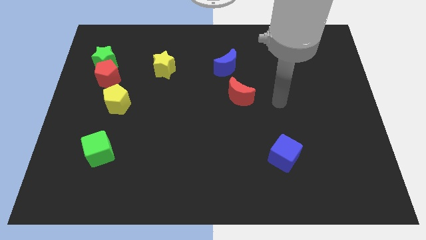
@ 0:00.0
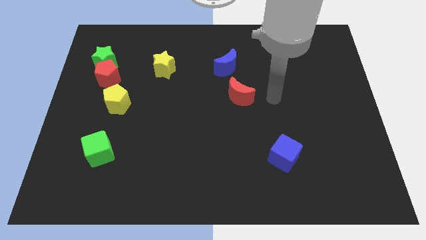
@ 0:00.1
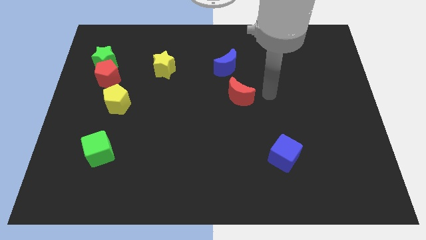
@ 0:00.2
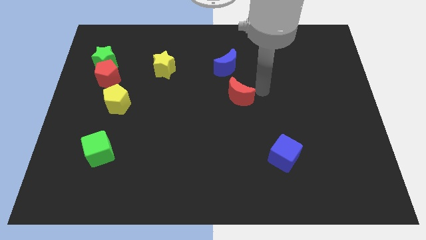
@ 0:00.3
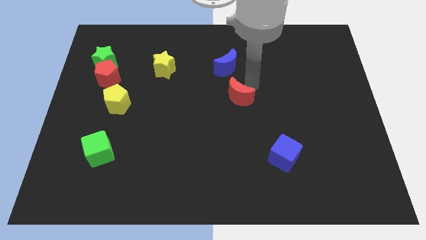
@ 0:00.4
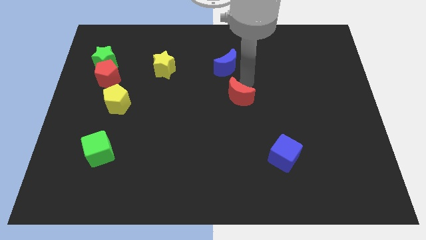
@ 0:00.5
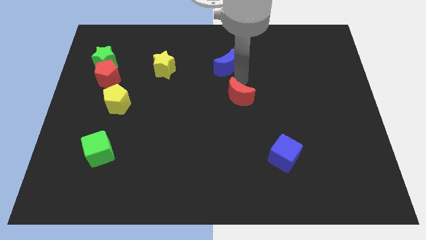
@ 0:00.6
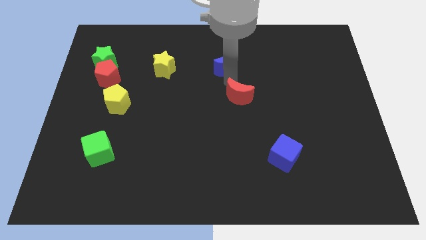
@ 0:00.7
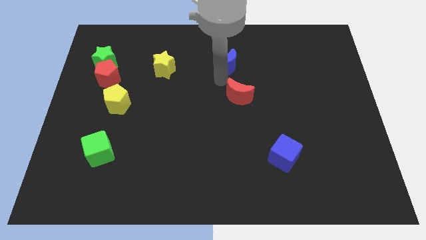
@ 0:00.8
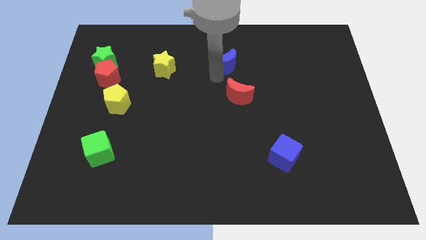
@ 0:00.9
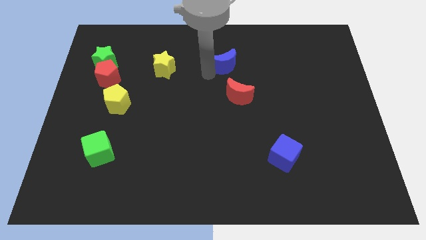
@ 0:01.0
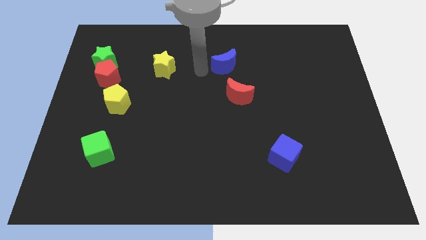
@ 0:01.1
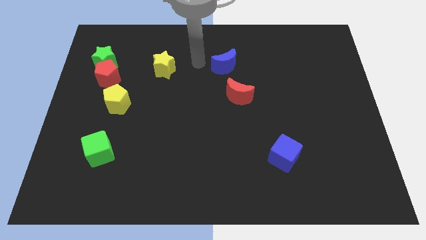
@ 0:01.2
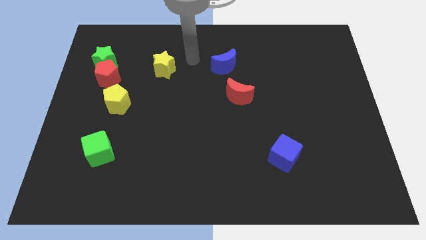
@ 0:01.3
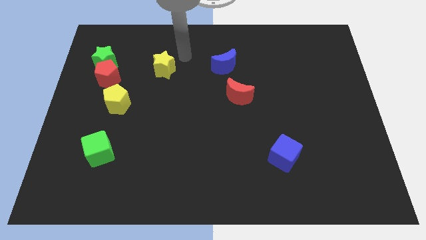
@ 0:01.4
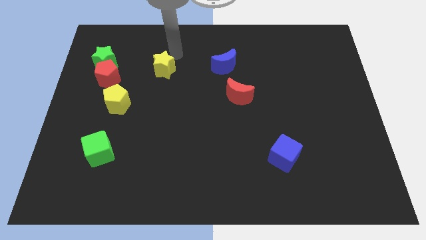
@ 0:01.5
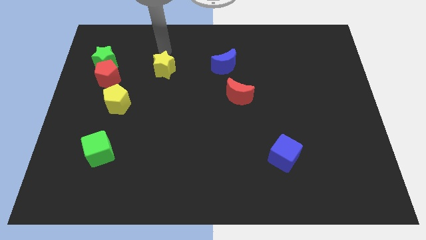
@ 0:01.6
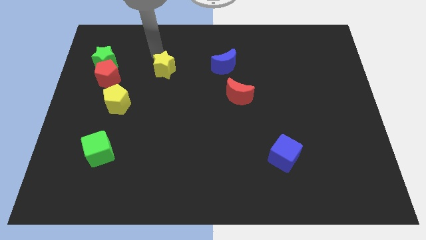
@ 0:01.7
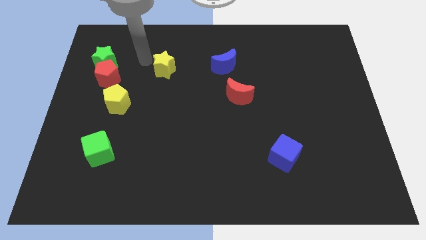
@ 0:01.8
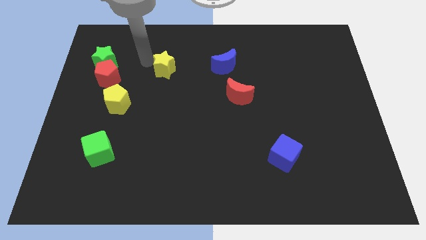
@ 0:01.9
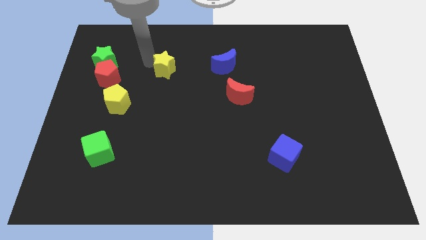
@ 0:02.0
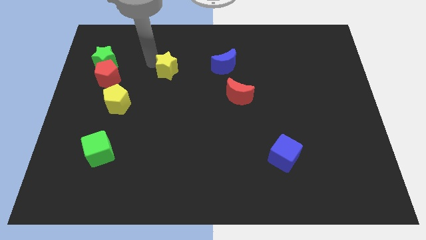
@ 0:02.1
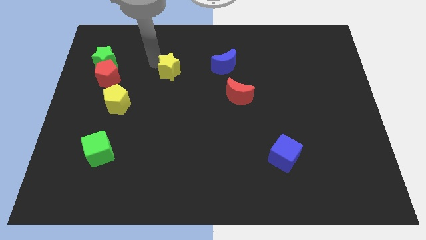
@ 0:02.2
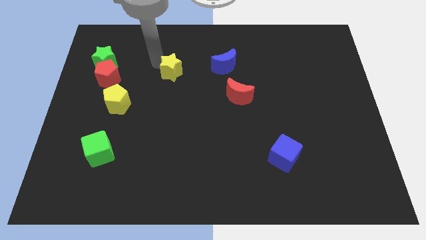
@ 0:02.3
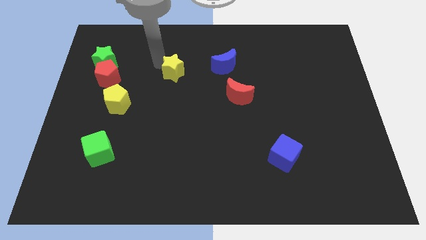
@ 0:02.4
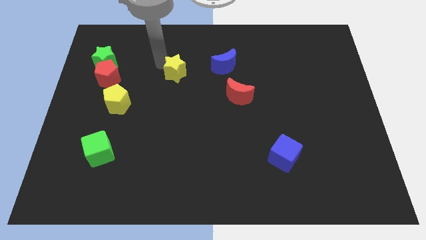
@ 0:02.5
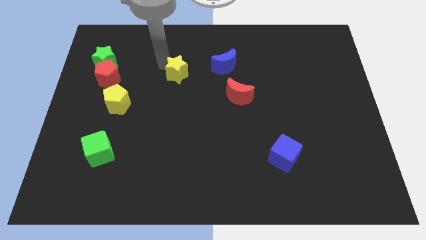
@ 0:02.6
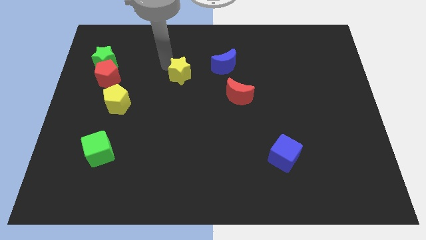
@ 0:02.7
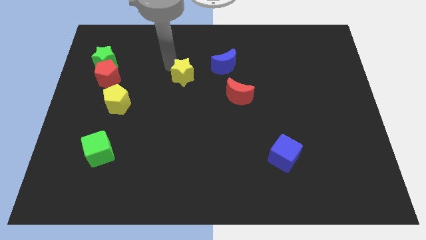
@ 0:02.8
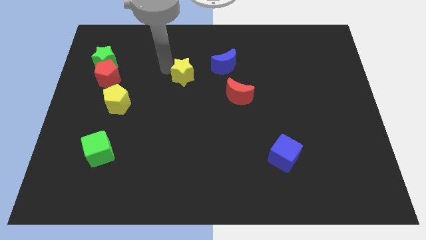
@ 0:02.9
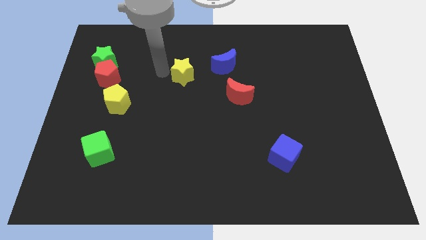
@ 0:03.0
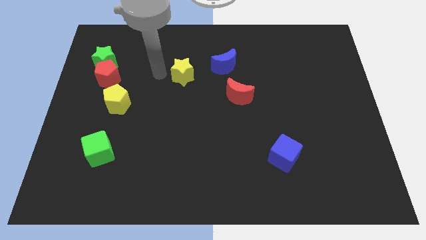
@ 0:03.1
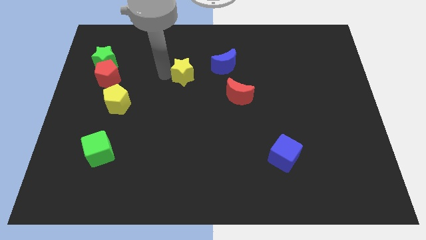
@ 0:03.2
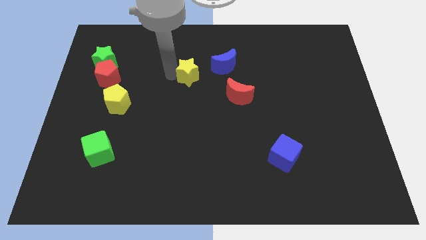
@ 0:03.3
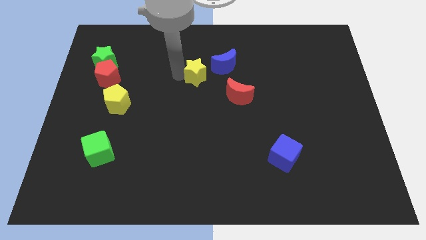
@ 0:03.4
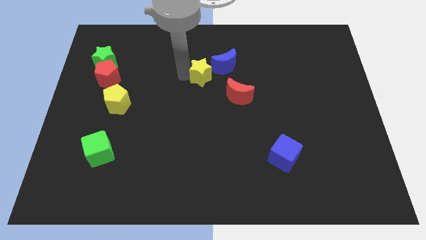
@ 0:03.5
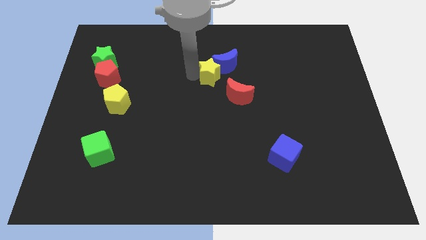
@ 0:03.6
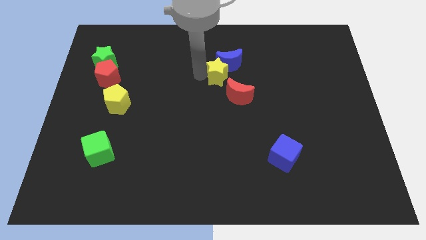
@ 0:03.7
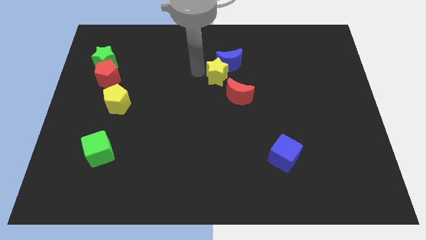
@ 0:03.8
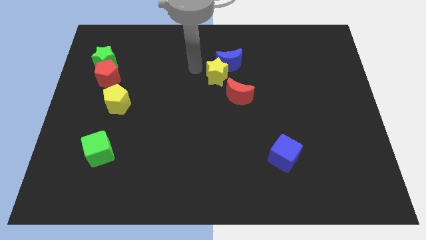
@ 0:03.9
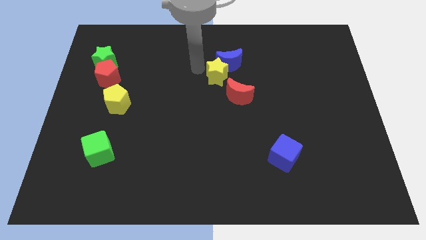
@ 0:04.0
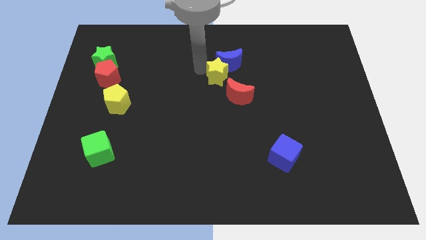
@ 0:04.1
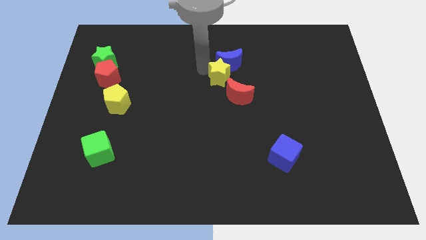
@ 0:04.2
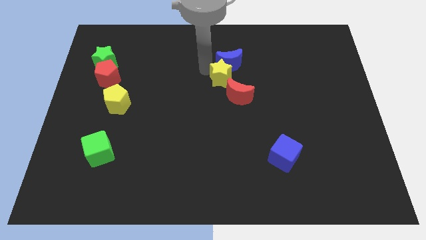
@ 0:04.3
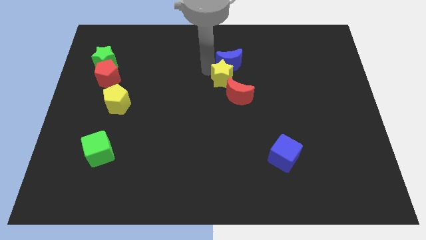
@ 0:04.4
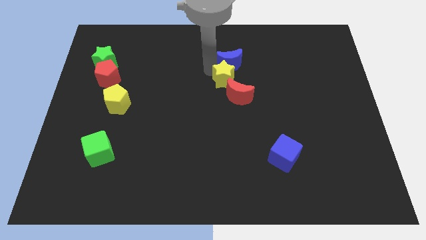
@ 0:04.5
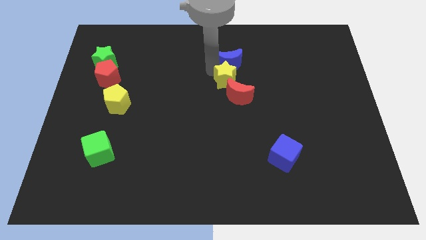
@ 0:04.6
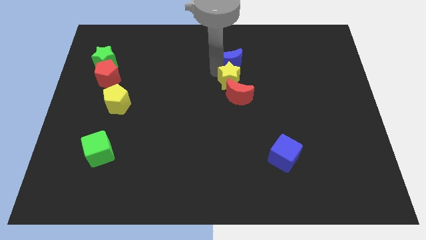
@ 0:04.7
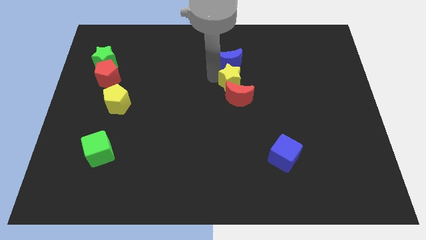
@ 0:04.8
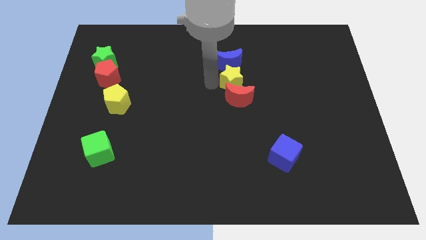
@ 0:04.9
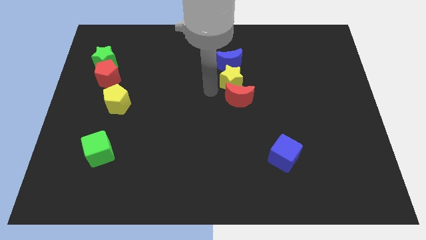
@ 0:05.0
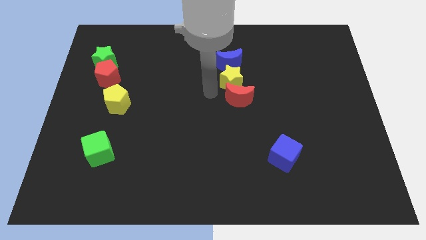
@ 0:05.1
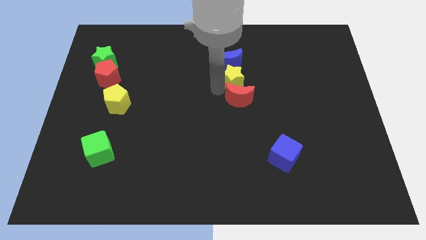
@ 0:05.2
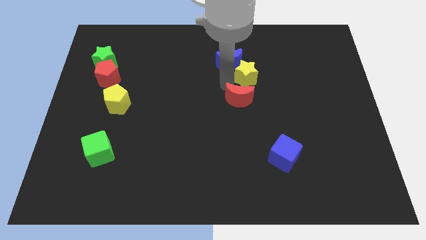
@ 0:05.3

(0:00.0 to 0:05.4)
move the yellow star to the right of the blue moon

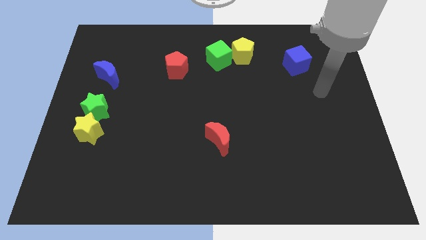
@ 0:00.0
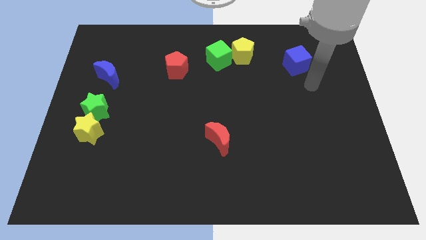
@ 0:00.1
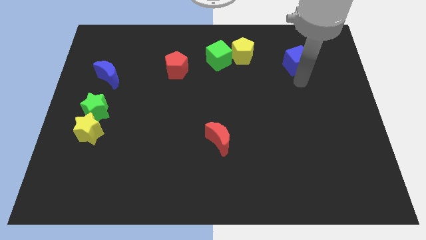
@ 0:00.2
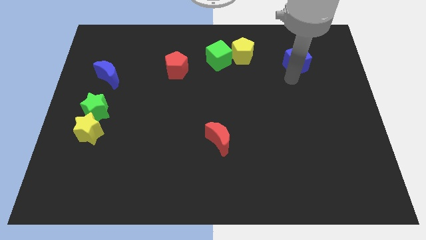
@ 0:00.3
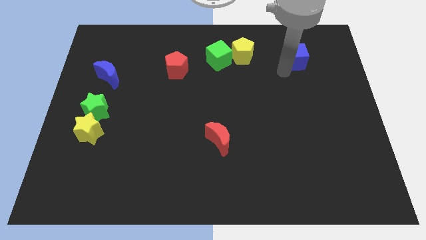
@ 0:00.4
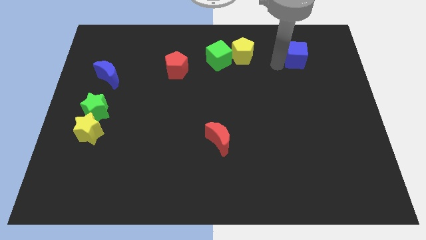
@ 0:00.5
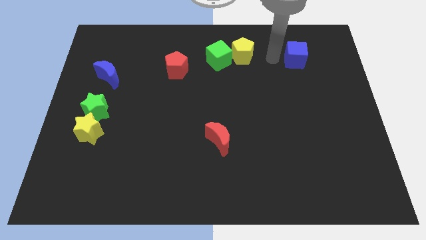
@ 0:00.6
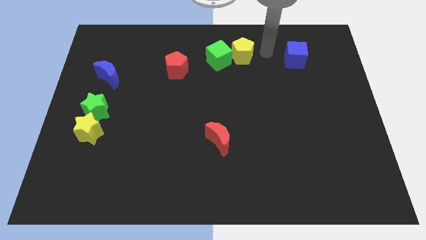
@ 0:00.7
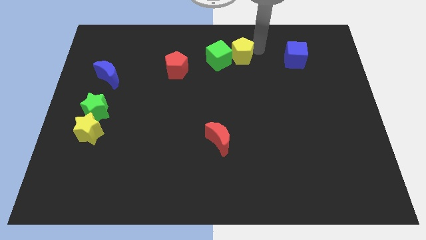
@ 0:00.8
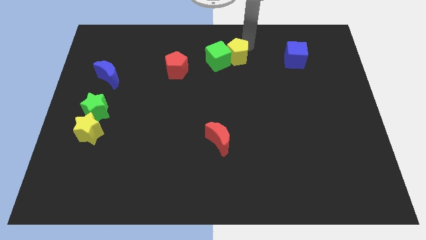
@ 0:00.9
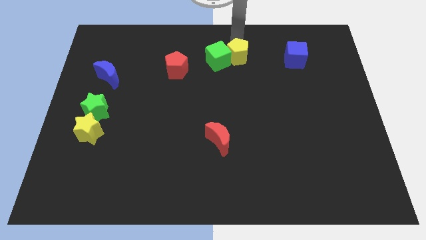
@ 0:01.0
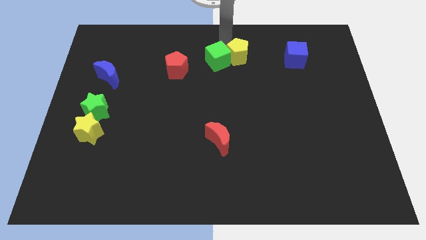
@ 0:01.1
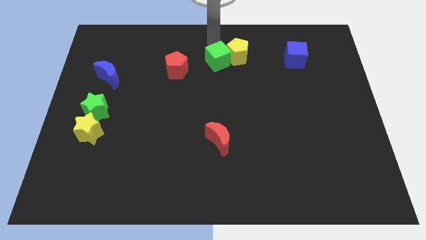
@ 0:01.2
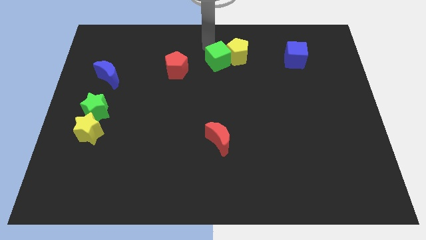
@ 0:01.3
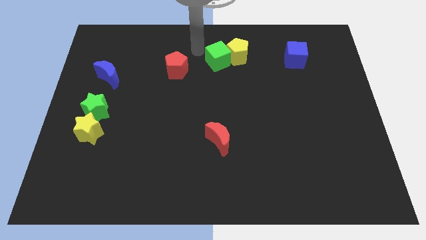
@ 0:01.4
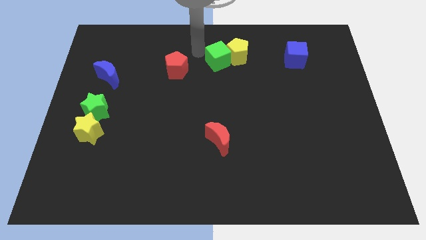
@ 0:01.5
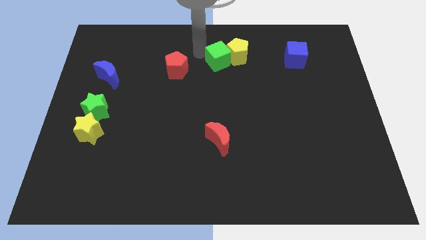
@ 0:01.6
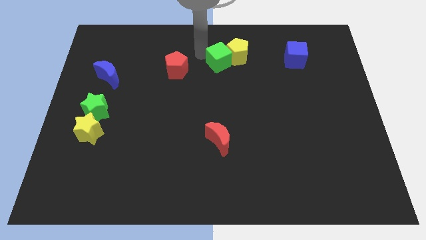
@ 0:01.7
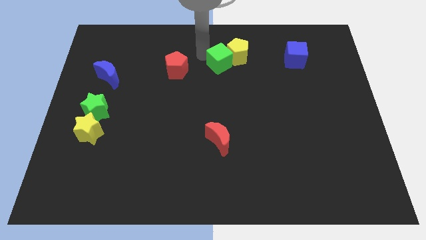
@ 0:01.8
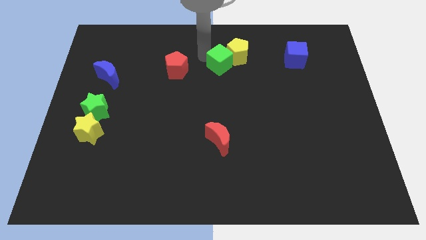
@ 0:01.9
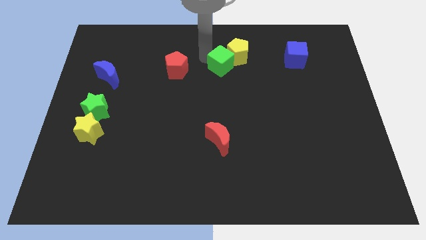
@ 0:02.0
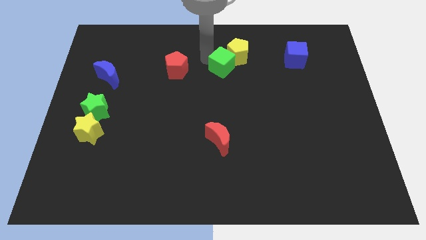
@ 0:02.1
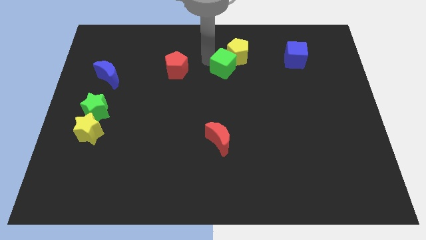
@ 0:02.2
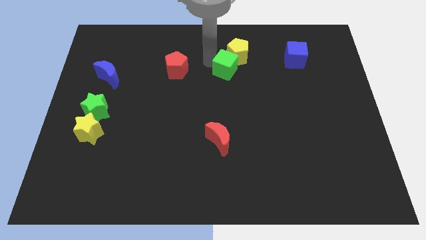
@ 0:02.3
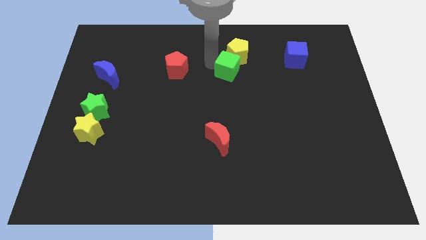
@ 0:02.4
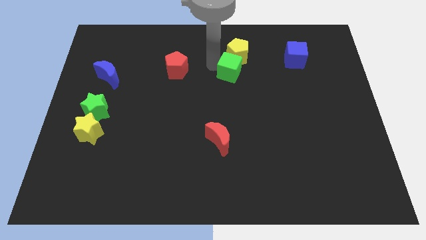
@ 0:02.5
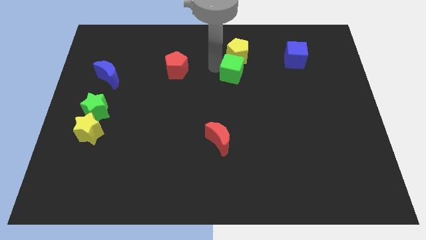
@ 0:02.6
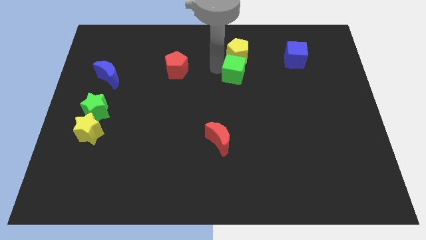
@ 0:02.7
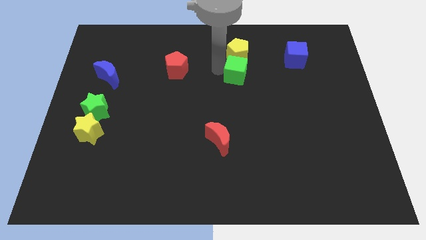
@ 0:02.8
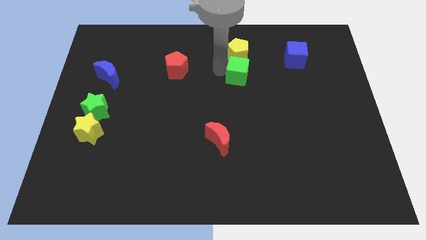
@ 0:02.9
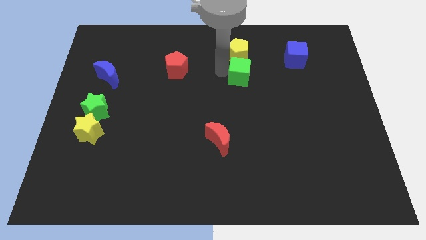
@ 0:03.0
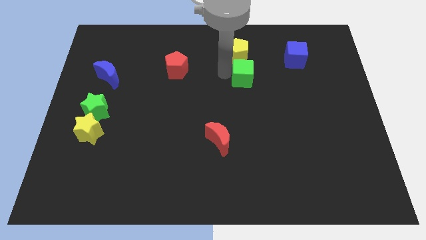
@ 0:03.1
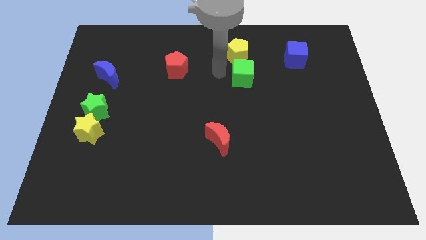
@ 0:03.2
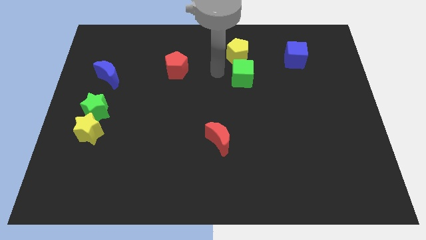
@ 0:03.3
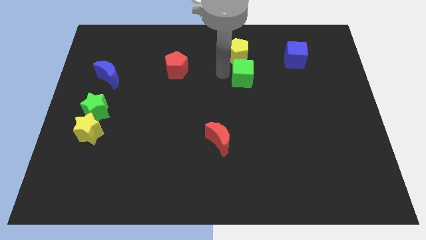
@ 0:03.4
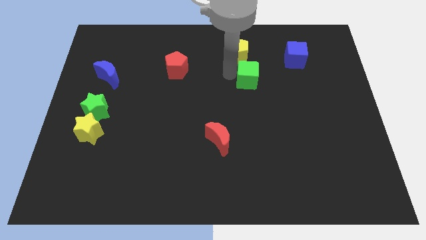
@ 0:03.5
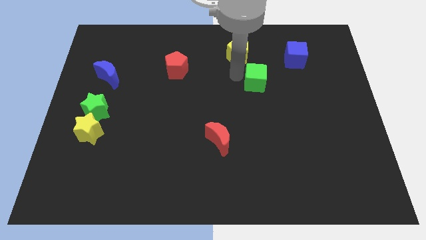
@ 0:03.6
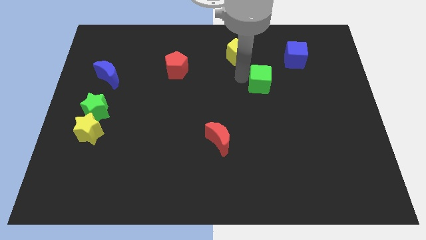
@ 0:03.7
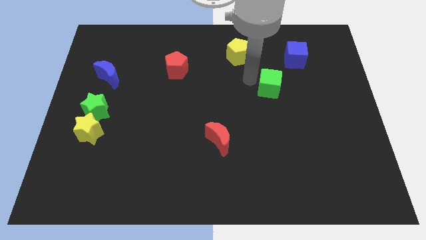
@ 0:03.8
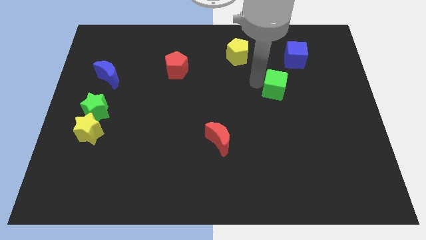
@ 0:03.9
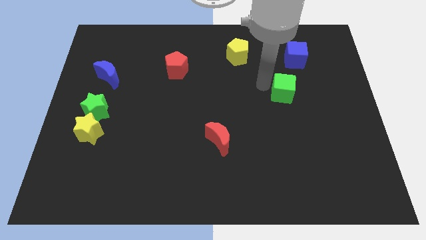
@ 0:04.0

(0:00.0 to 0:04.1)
slide the green cube below the blue cube
